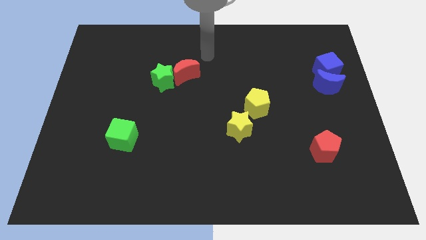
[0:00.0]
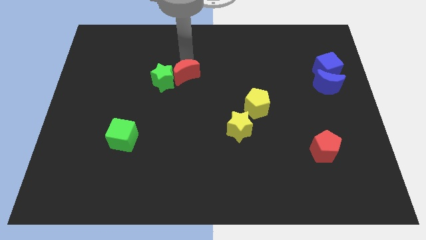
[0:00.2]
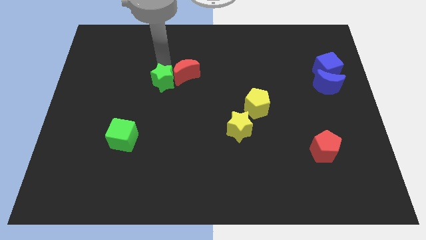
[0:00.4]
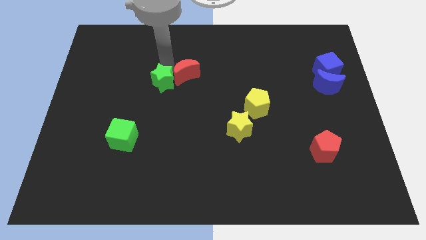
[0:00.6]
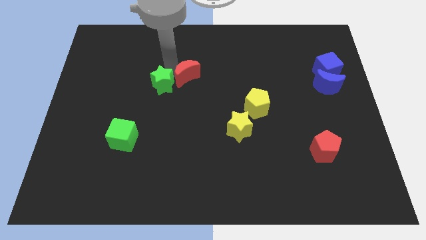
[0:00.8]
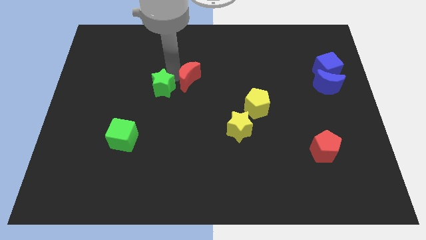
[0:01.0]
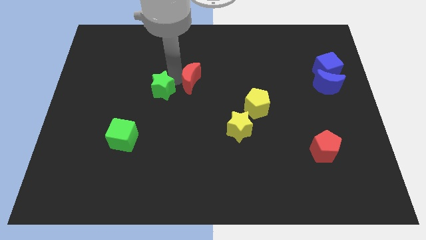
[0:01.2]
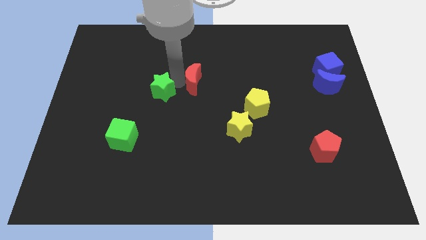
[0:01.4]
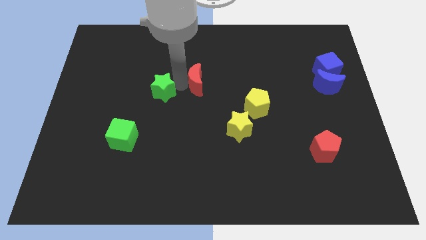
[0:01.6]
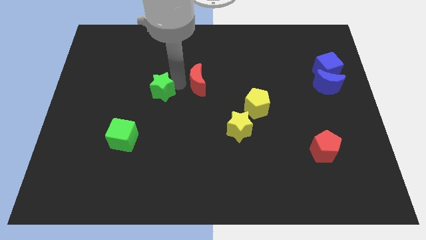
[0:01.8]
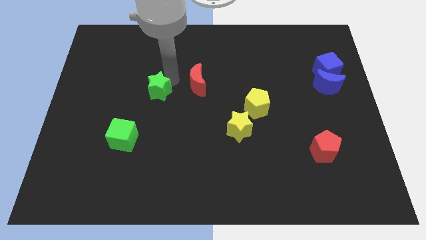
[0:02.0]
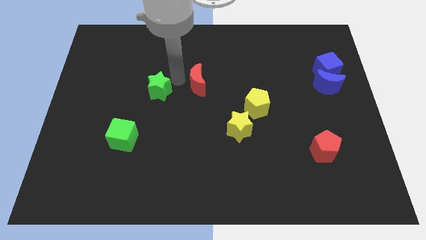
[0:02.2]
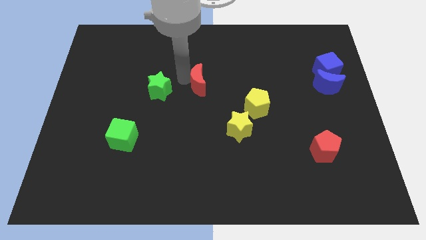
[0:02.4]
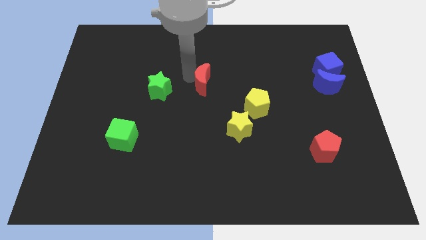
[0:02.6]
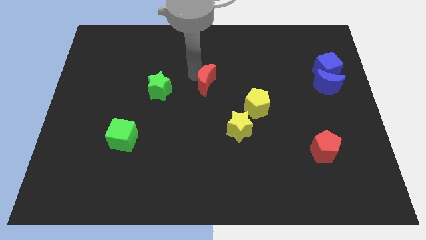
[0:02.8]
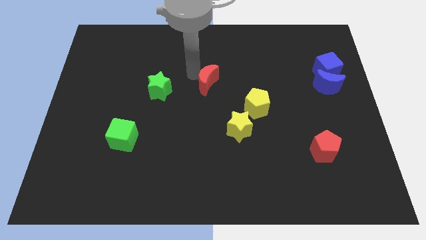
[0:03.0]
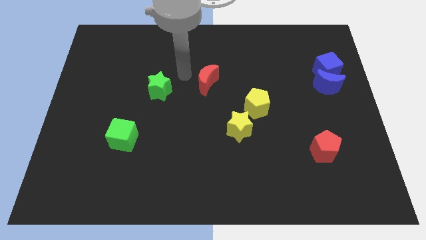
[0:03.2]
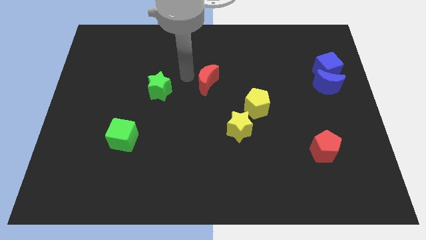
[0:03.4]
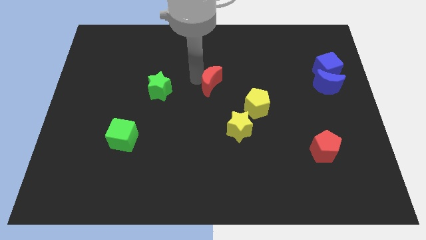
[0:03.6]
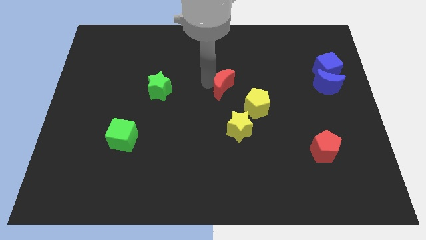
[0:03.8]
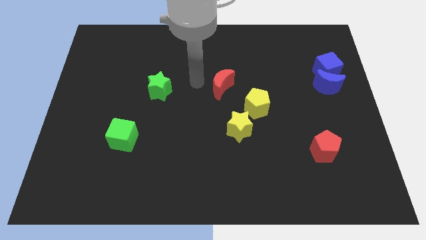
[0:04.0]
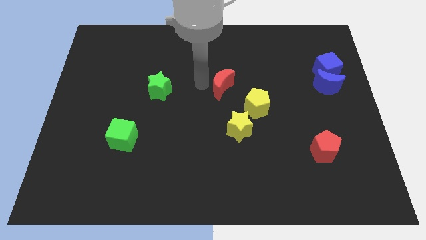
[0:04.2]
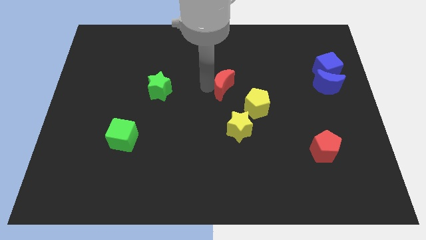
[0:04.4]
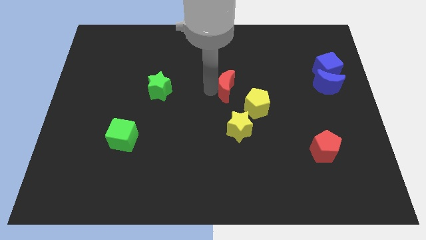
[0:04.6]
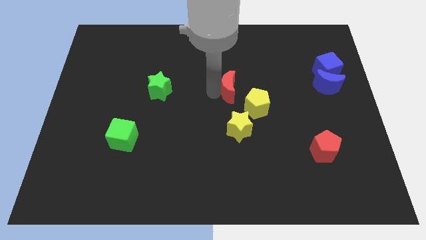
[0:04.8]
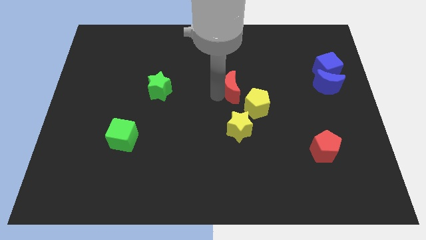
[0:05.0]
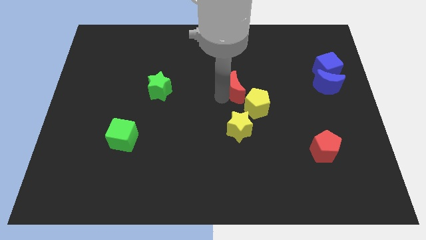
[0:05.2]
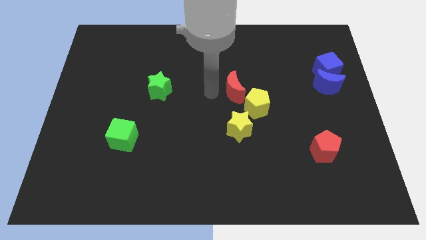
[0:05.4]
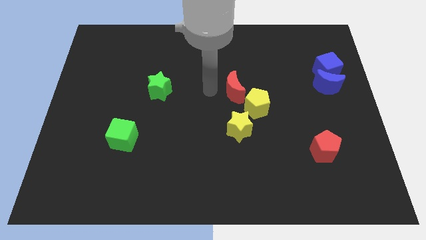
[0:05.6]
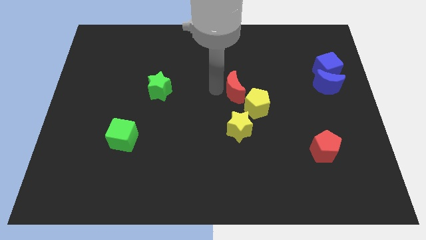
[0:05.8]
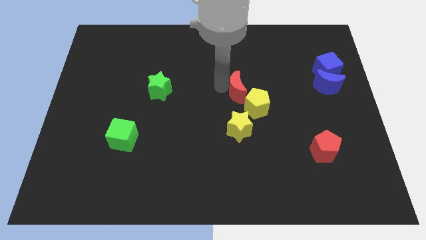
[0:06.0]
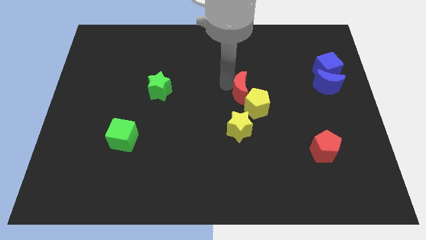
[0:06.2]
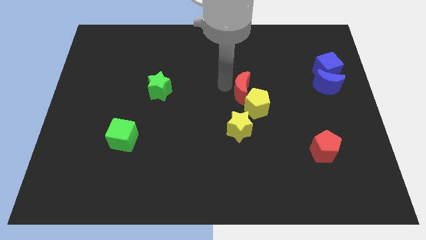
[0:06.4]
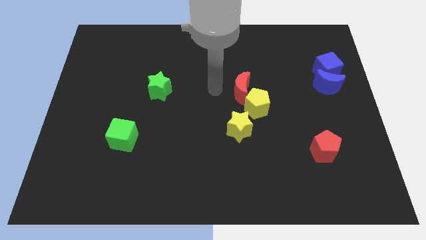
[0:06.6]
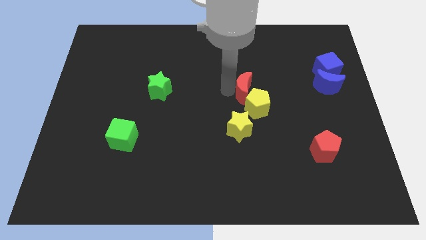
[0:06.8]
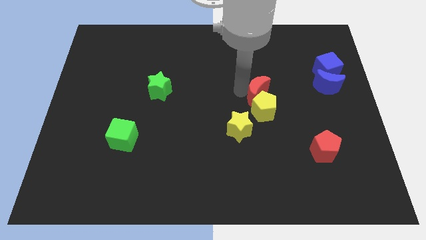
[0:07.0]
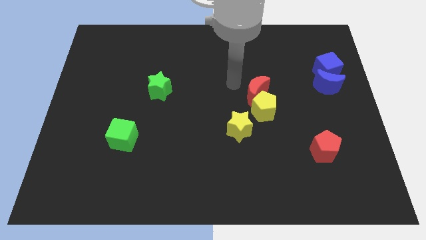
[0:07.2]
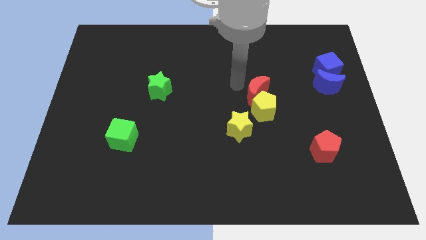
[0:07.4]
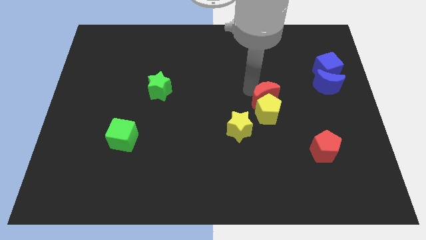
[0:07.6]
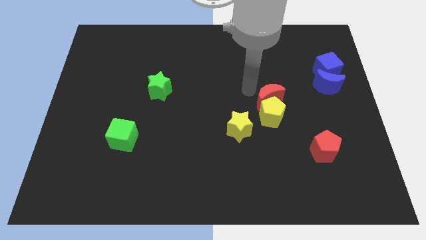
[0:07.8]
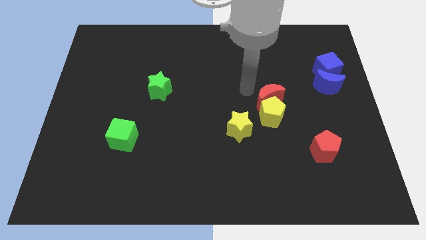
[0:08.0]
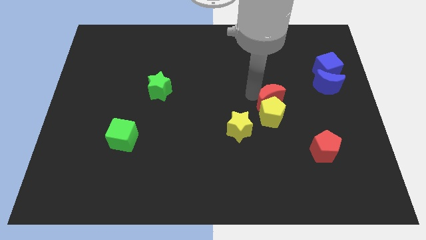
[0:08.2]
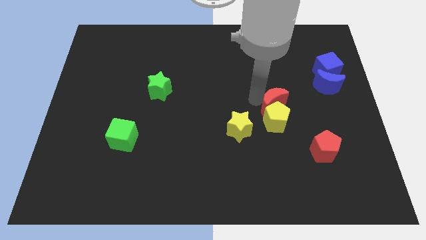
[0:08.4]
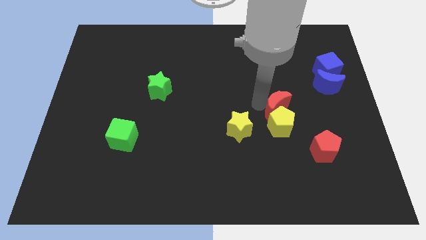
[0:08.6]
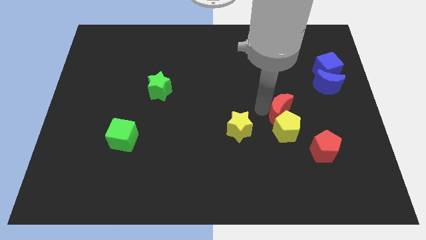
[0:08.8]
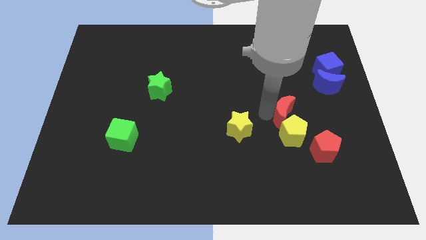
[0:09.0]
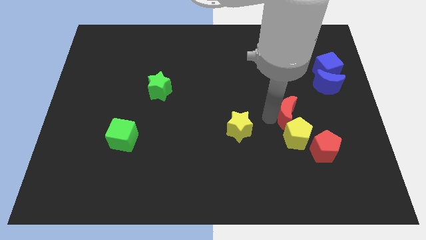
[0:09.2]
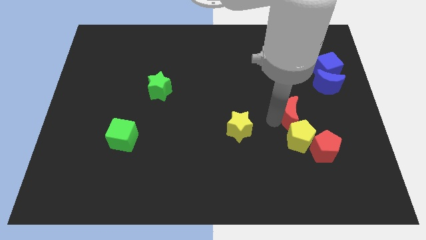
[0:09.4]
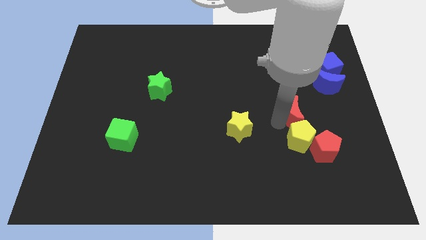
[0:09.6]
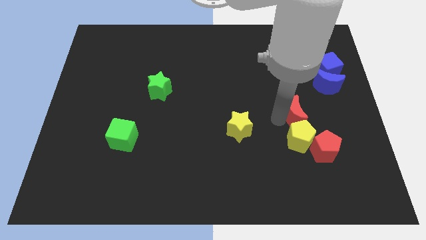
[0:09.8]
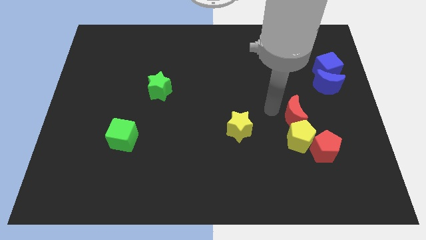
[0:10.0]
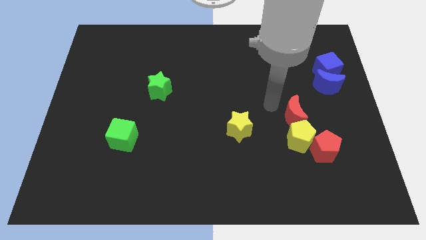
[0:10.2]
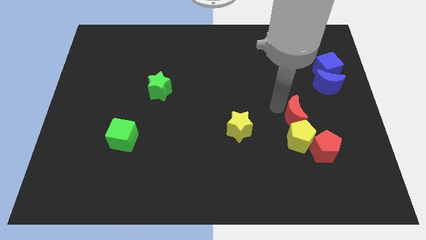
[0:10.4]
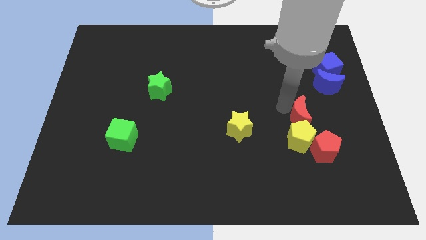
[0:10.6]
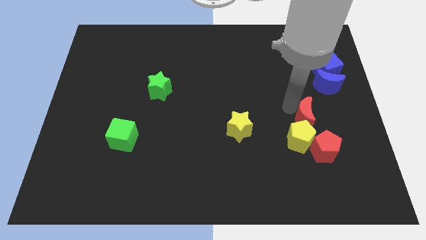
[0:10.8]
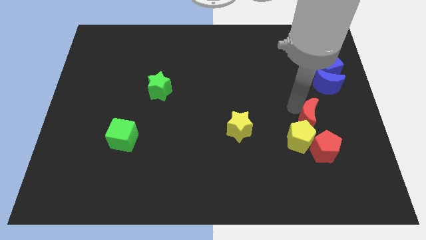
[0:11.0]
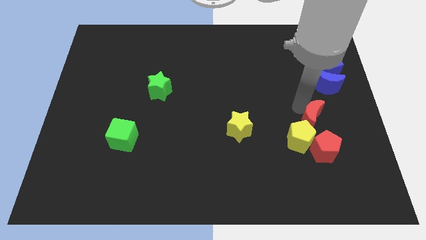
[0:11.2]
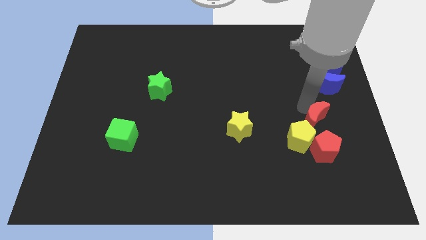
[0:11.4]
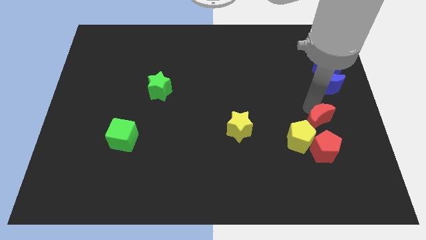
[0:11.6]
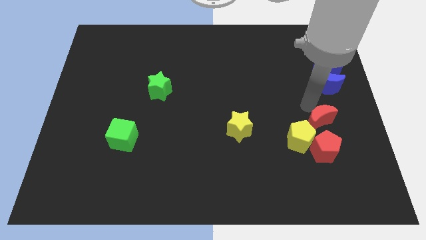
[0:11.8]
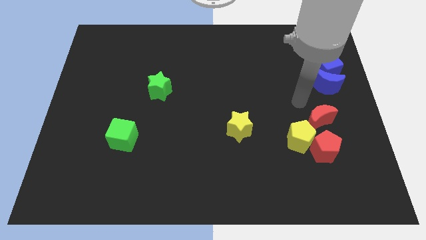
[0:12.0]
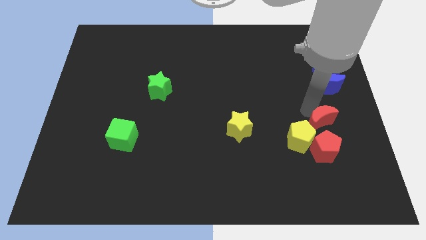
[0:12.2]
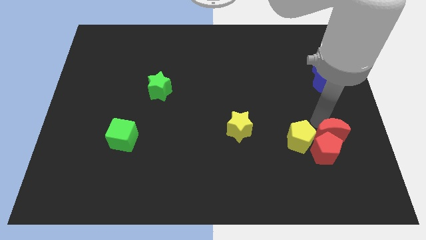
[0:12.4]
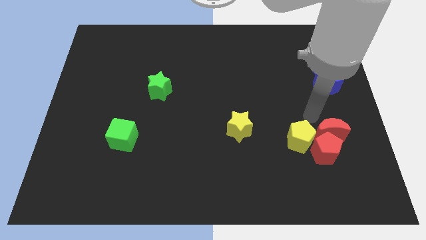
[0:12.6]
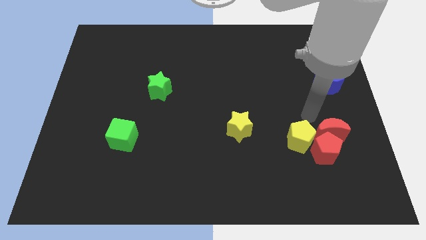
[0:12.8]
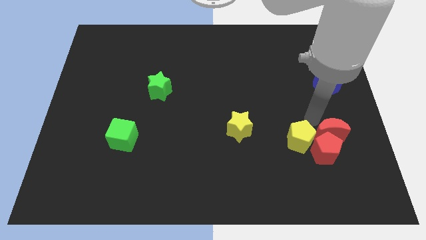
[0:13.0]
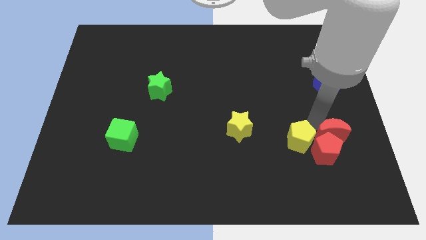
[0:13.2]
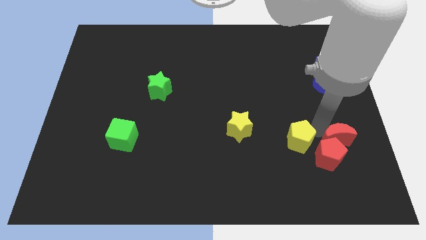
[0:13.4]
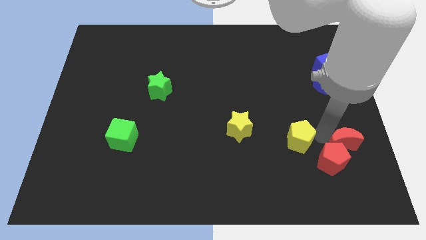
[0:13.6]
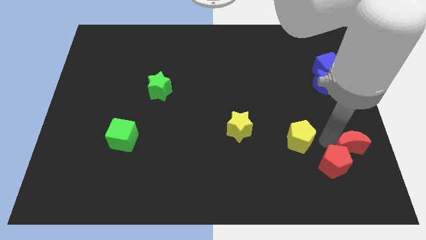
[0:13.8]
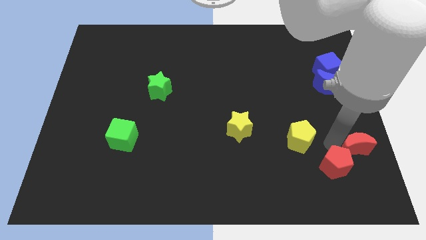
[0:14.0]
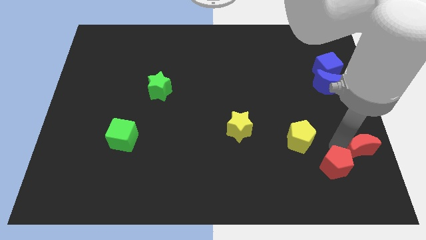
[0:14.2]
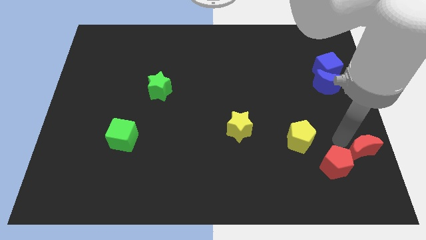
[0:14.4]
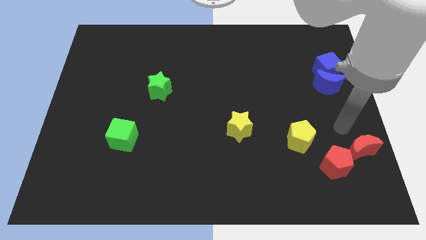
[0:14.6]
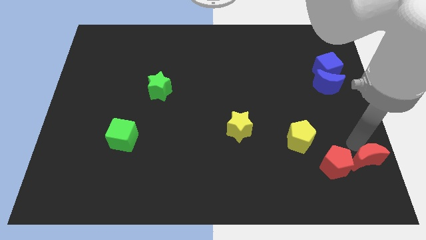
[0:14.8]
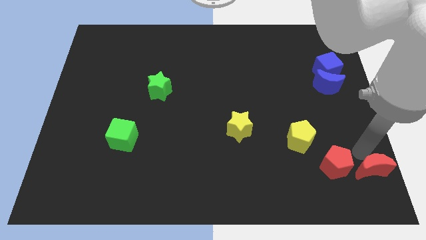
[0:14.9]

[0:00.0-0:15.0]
put the red moon to the bottom right

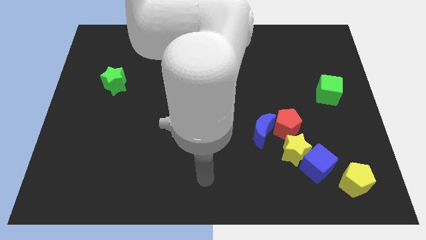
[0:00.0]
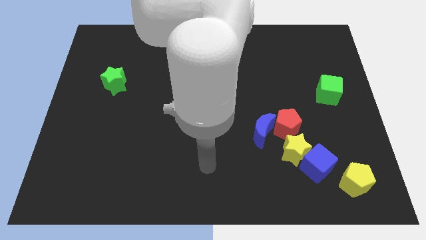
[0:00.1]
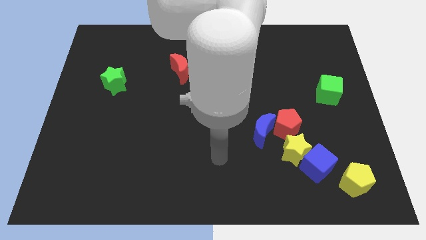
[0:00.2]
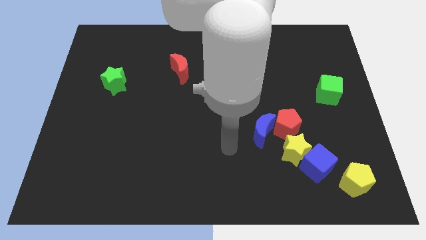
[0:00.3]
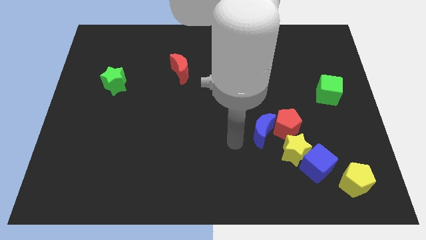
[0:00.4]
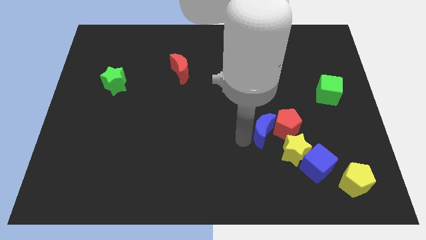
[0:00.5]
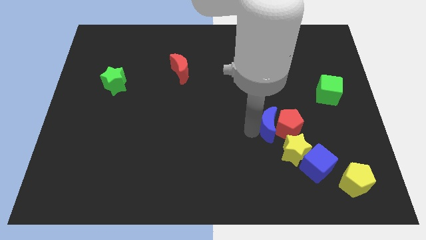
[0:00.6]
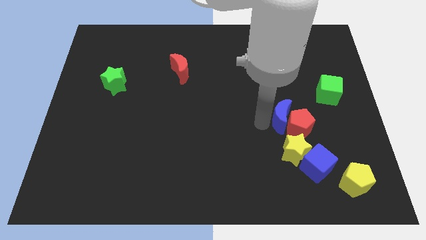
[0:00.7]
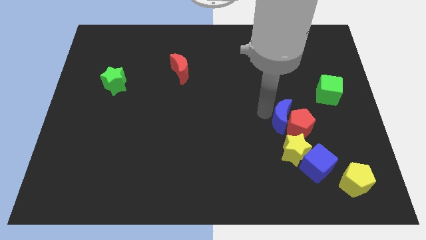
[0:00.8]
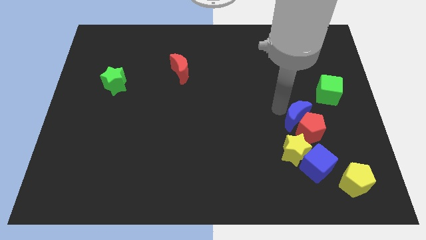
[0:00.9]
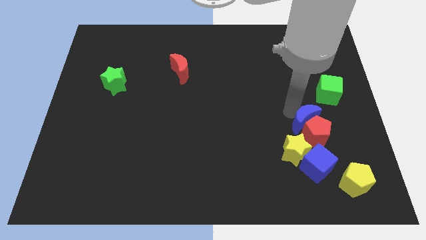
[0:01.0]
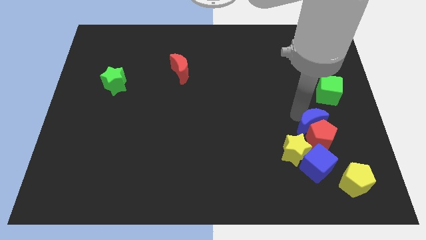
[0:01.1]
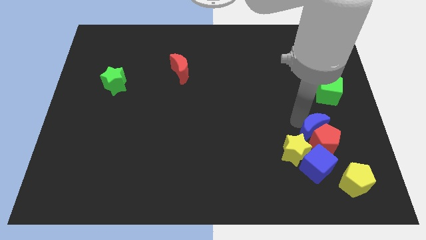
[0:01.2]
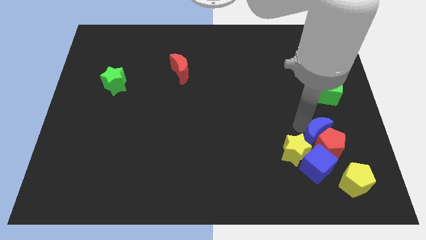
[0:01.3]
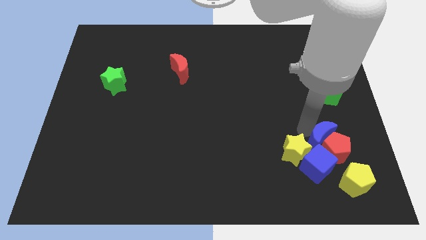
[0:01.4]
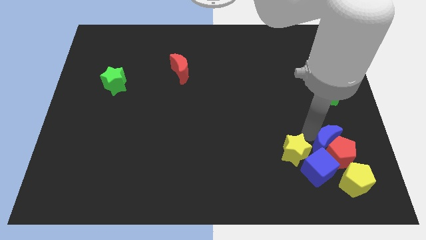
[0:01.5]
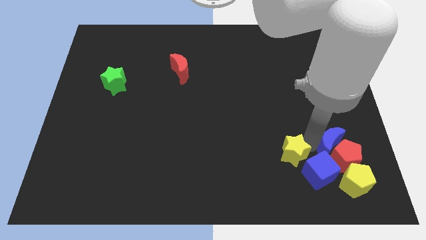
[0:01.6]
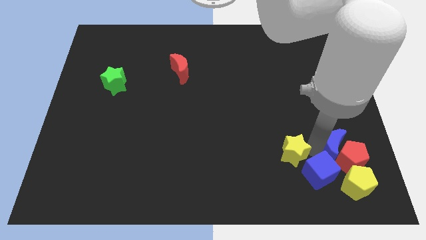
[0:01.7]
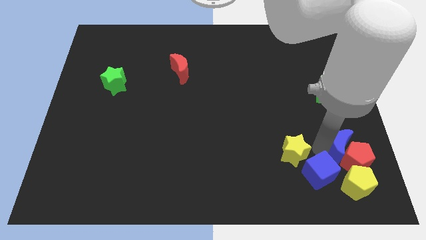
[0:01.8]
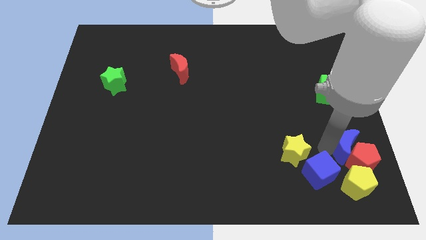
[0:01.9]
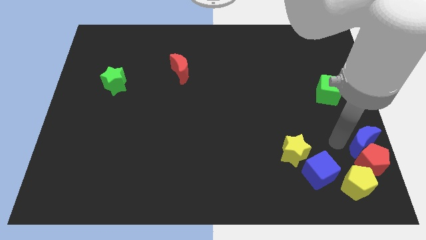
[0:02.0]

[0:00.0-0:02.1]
put the red pentagon to the lower right corner
